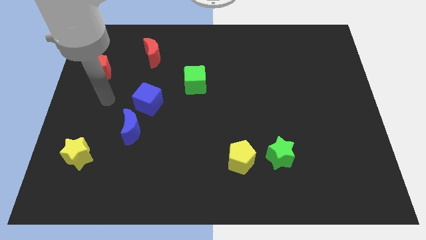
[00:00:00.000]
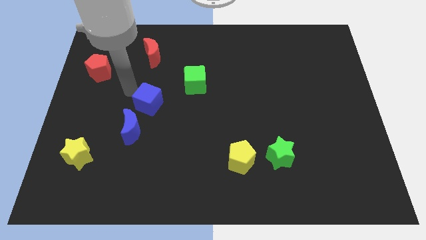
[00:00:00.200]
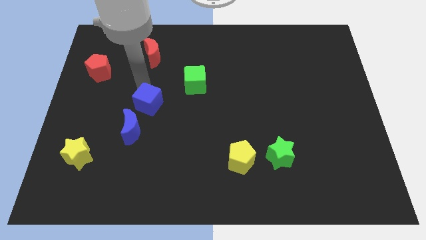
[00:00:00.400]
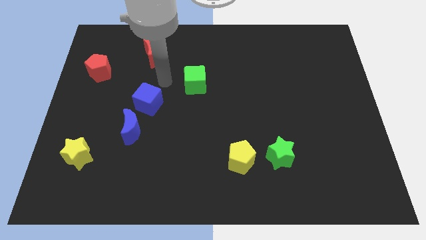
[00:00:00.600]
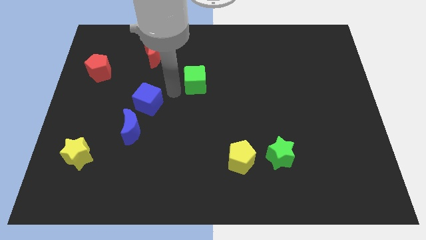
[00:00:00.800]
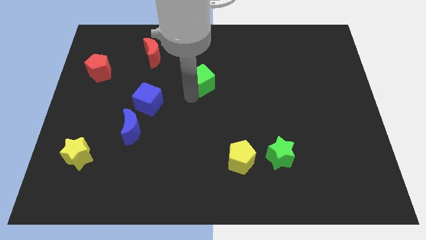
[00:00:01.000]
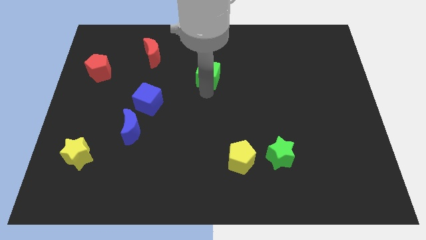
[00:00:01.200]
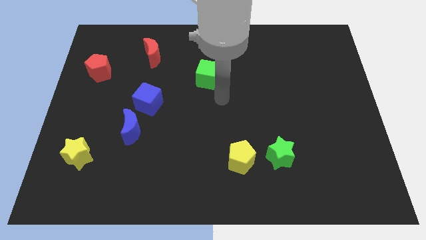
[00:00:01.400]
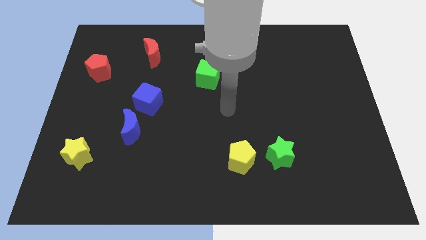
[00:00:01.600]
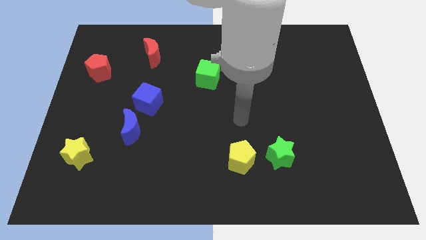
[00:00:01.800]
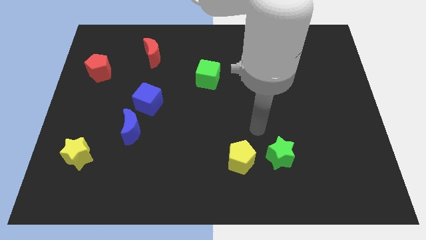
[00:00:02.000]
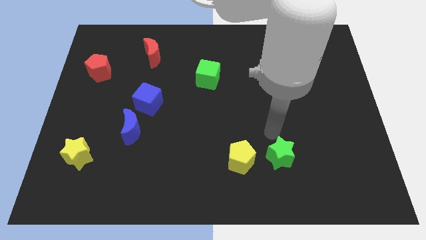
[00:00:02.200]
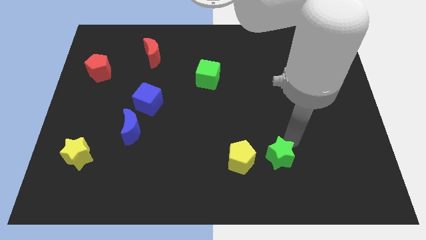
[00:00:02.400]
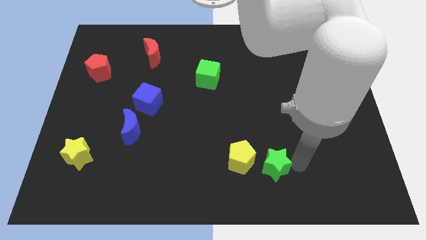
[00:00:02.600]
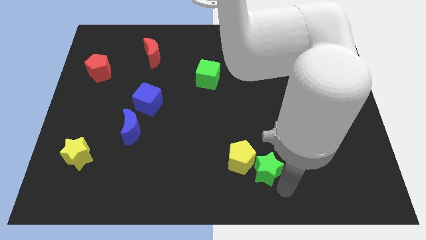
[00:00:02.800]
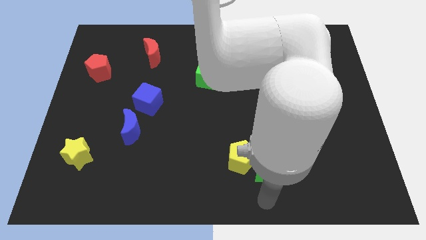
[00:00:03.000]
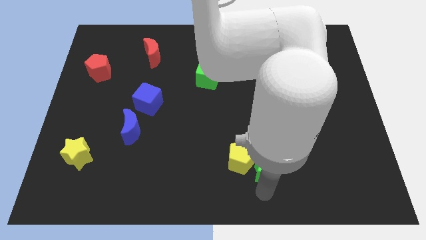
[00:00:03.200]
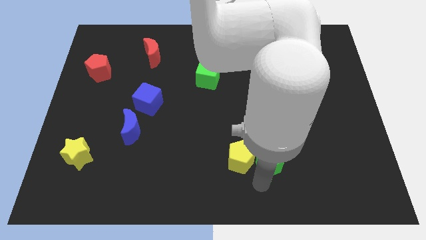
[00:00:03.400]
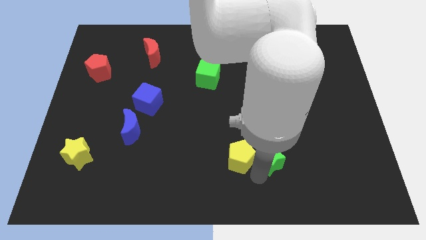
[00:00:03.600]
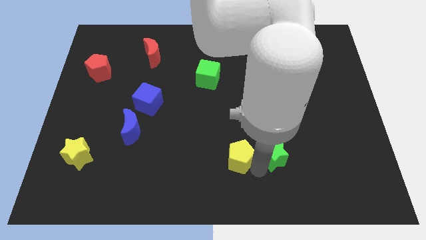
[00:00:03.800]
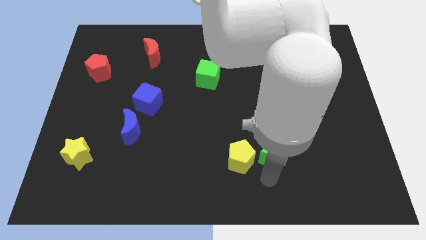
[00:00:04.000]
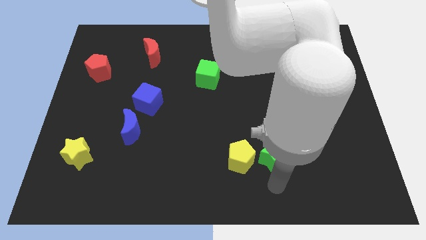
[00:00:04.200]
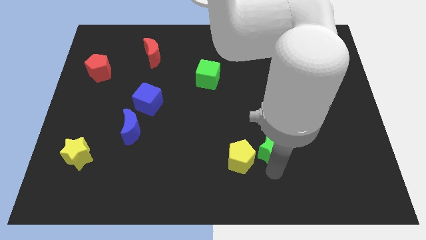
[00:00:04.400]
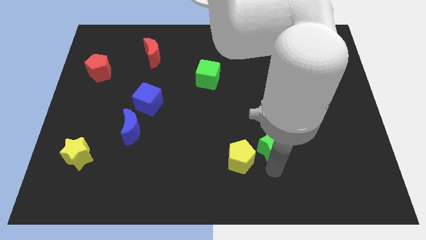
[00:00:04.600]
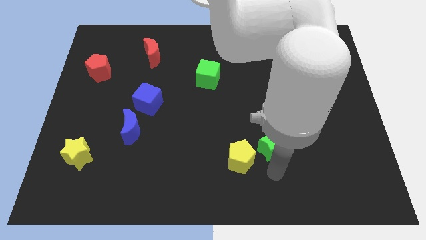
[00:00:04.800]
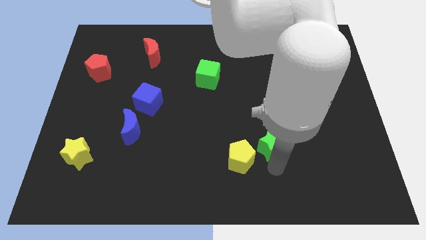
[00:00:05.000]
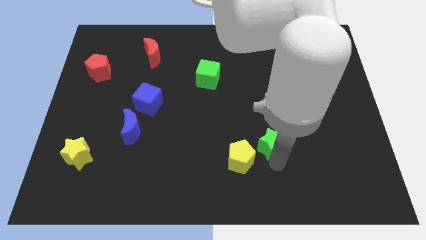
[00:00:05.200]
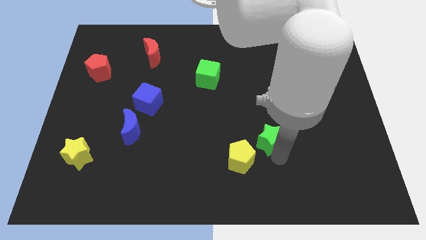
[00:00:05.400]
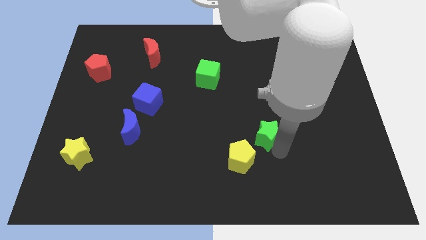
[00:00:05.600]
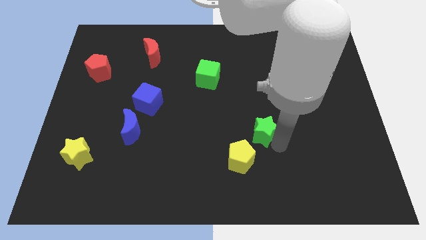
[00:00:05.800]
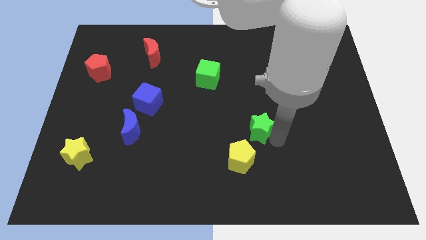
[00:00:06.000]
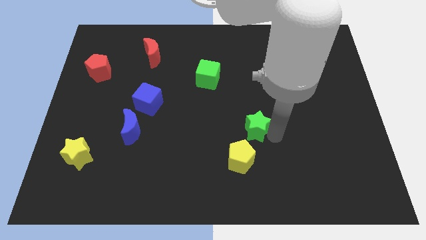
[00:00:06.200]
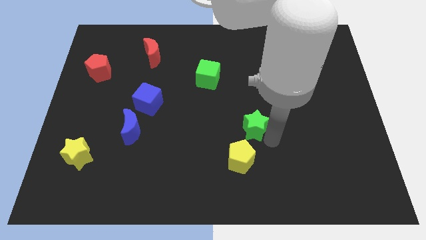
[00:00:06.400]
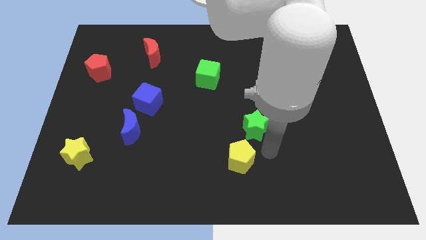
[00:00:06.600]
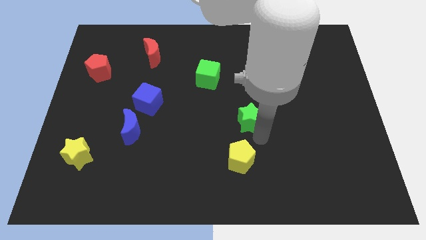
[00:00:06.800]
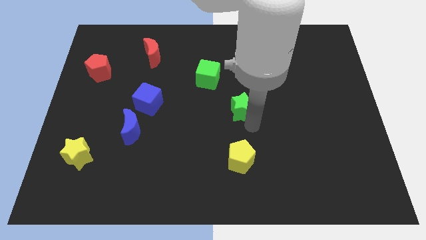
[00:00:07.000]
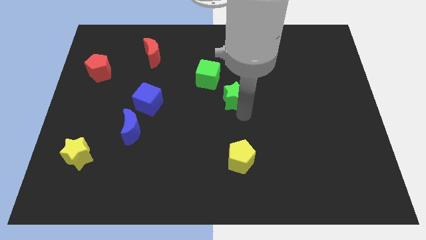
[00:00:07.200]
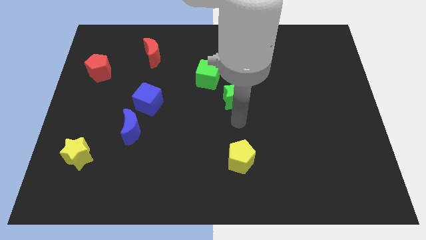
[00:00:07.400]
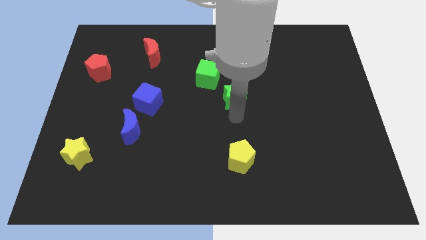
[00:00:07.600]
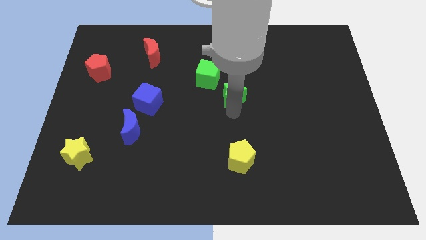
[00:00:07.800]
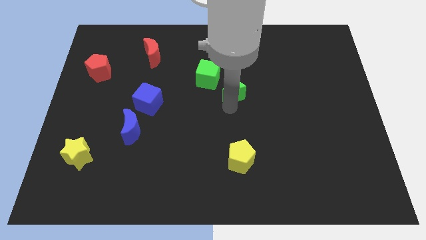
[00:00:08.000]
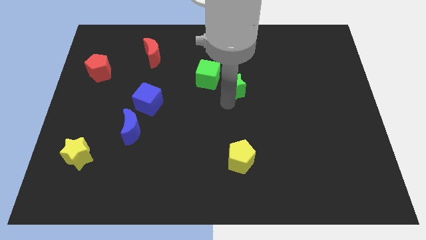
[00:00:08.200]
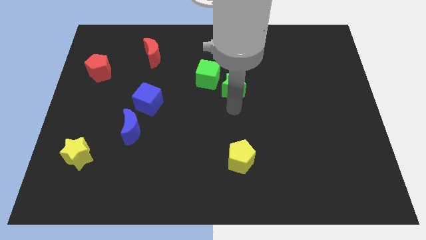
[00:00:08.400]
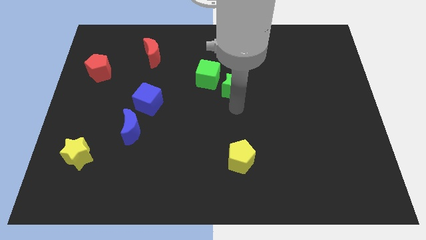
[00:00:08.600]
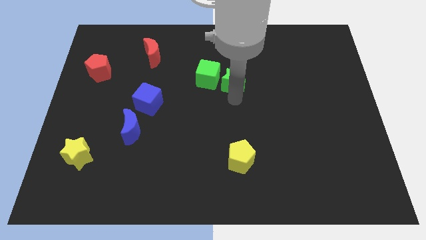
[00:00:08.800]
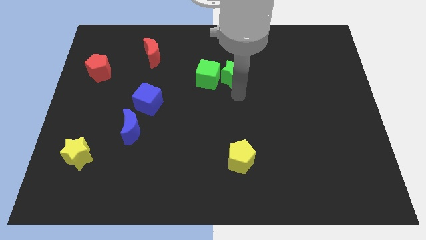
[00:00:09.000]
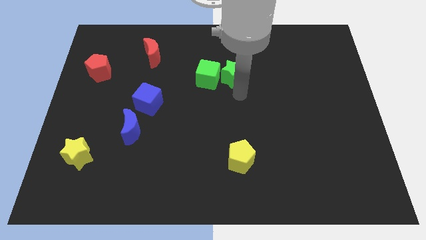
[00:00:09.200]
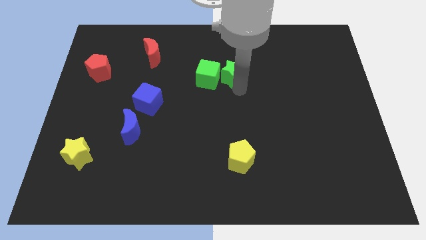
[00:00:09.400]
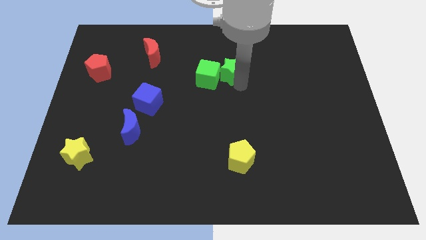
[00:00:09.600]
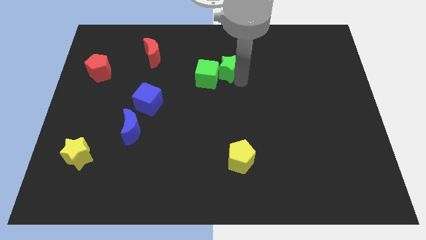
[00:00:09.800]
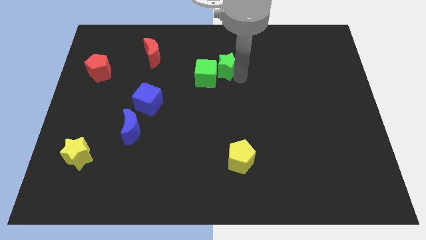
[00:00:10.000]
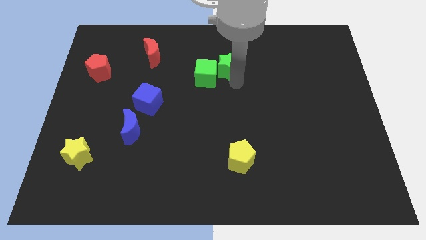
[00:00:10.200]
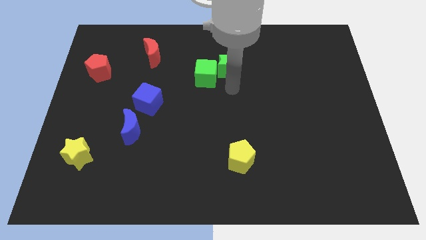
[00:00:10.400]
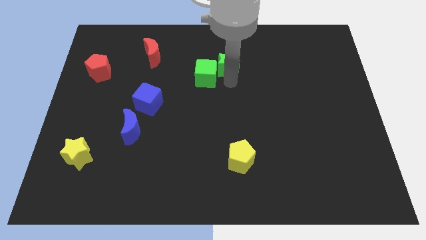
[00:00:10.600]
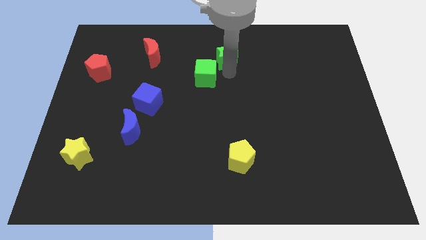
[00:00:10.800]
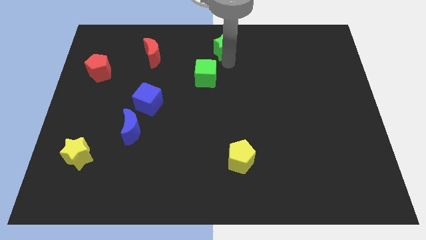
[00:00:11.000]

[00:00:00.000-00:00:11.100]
slide the green star to the top
